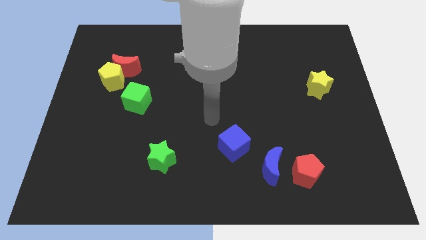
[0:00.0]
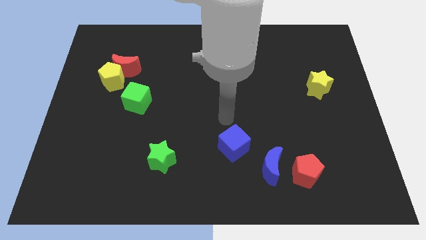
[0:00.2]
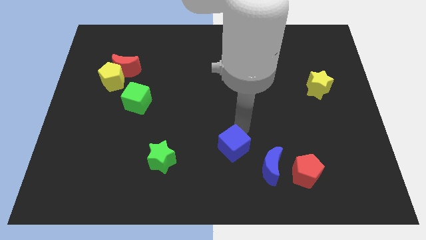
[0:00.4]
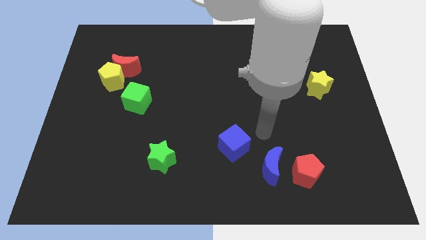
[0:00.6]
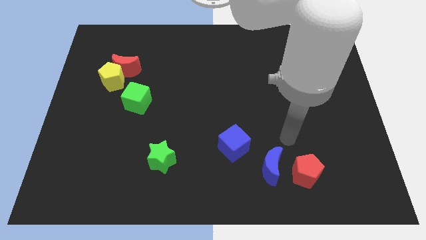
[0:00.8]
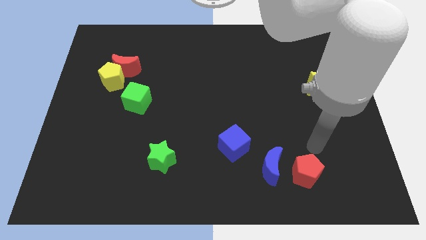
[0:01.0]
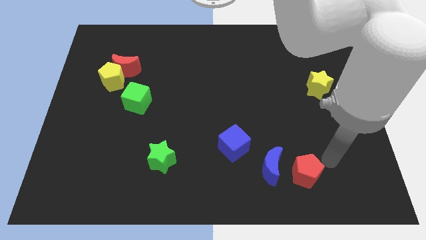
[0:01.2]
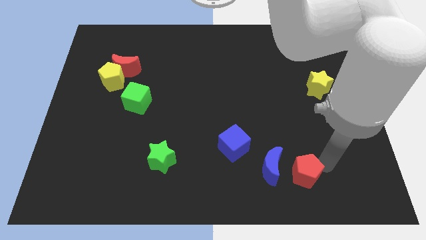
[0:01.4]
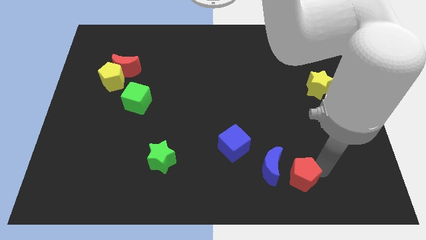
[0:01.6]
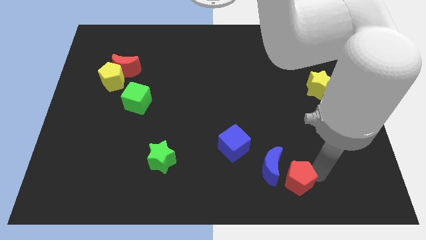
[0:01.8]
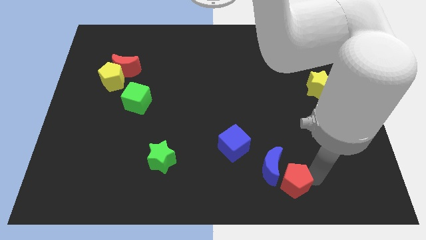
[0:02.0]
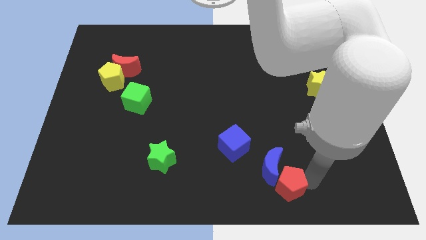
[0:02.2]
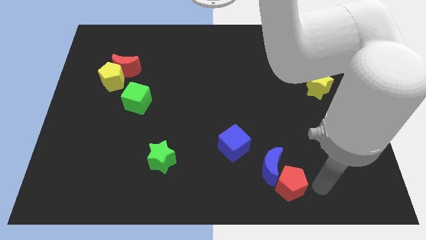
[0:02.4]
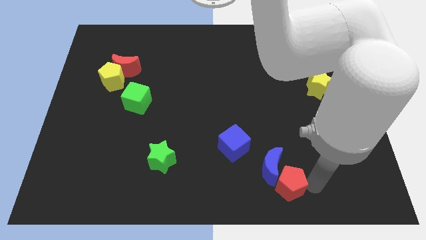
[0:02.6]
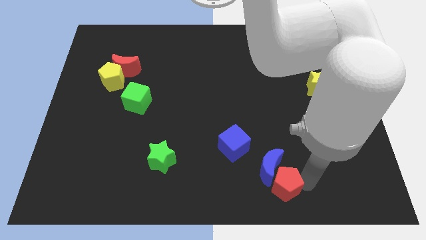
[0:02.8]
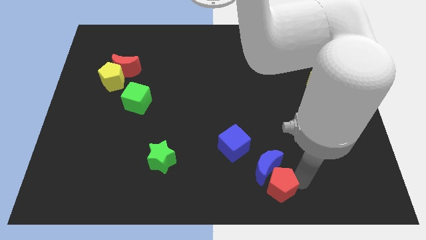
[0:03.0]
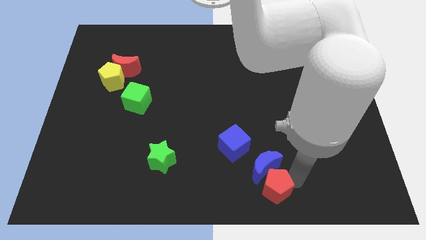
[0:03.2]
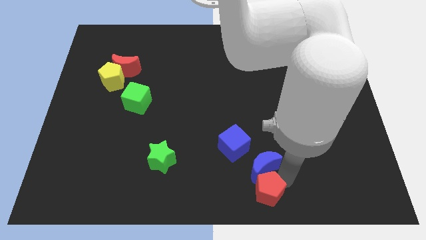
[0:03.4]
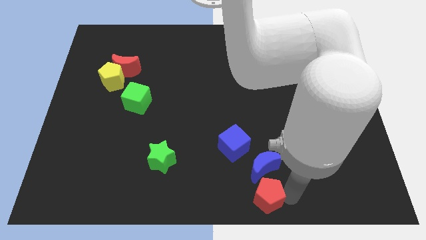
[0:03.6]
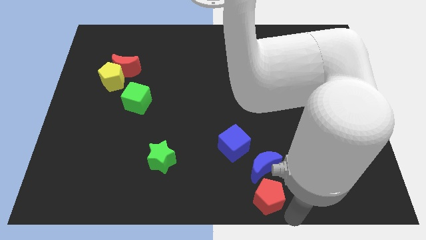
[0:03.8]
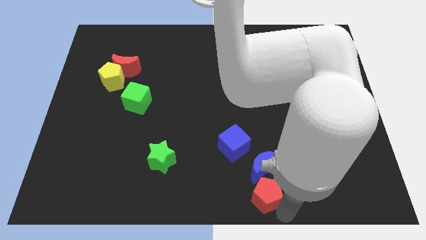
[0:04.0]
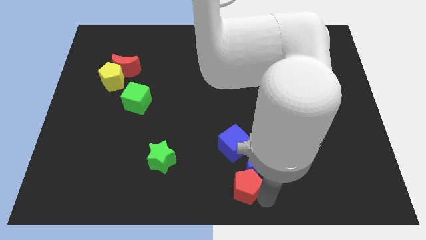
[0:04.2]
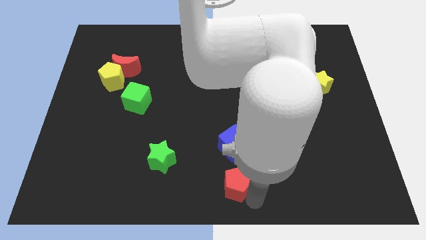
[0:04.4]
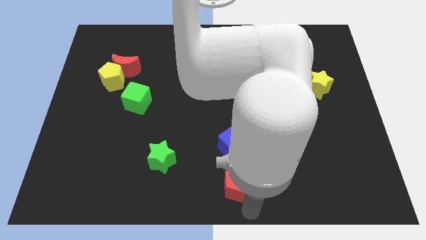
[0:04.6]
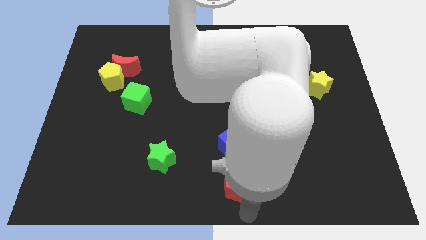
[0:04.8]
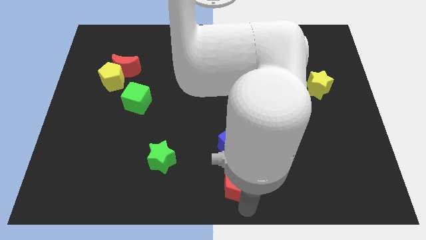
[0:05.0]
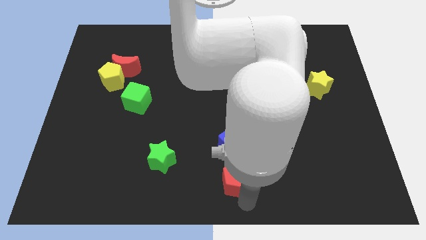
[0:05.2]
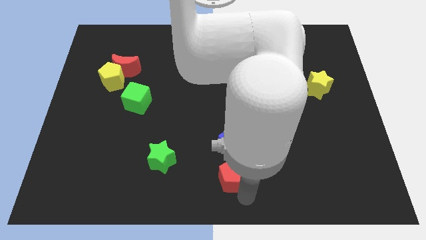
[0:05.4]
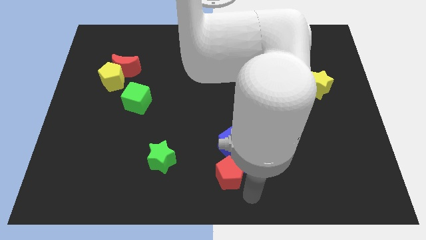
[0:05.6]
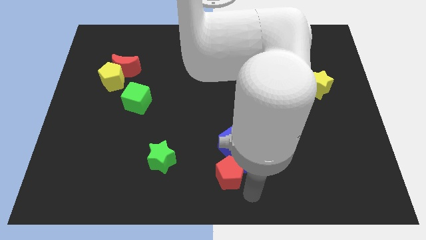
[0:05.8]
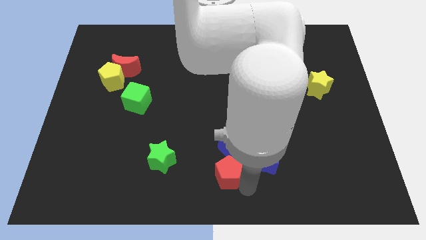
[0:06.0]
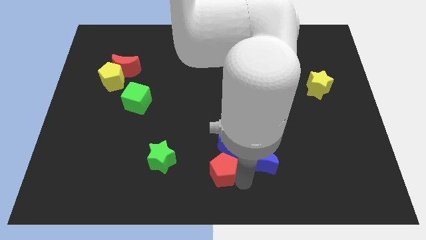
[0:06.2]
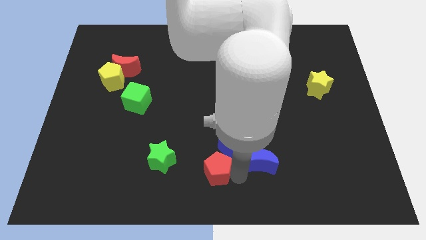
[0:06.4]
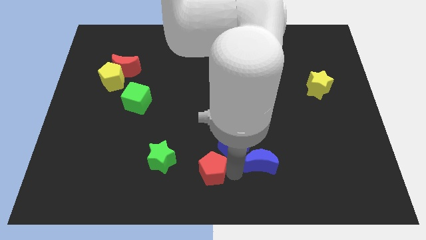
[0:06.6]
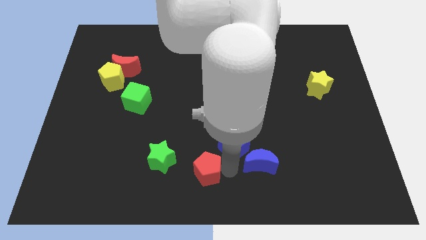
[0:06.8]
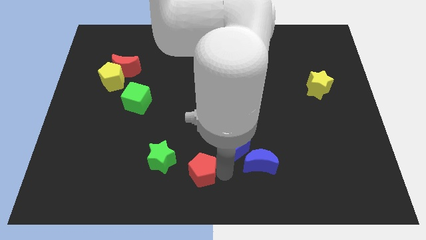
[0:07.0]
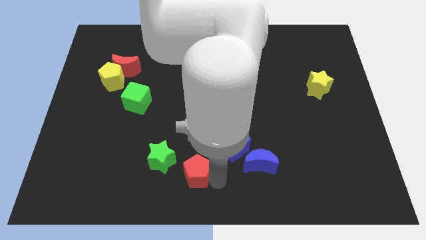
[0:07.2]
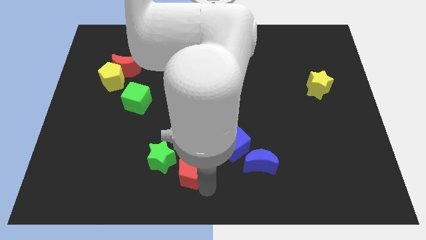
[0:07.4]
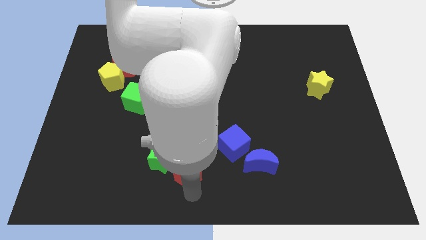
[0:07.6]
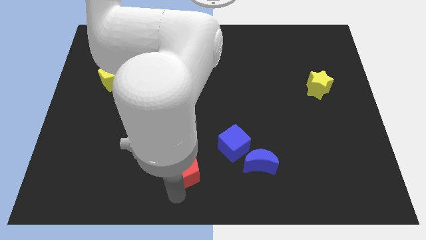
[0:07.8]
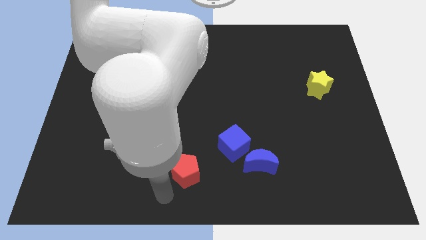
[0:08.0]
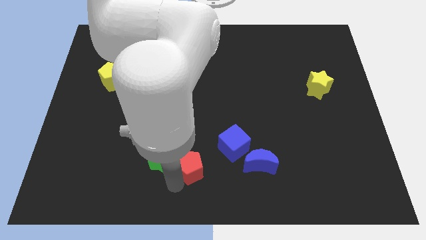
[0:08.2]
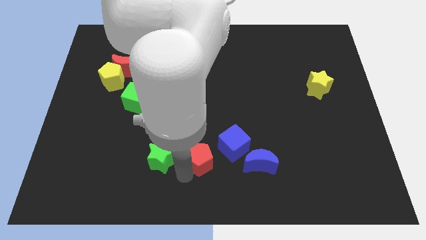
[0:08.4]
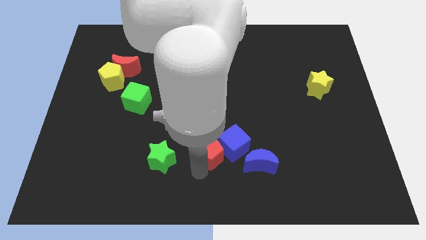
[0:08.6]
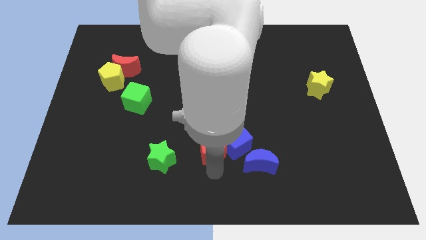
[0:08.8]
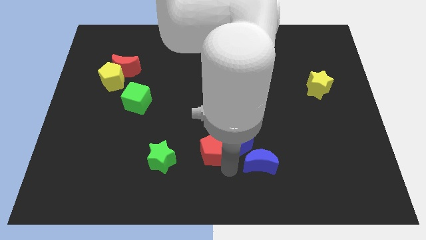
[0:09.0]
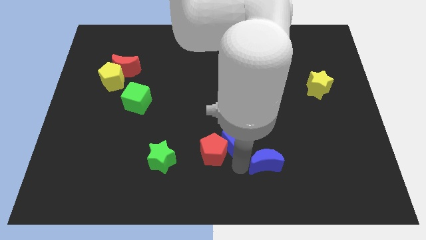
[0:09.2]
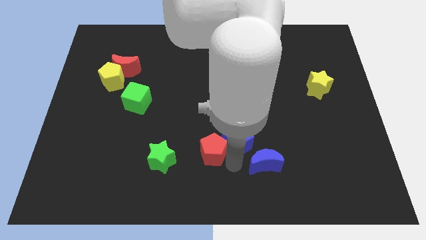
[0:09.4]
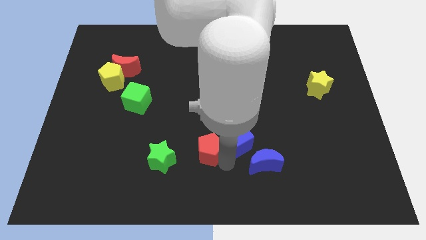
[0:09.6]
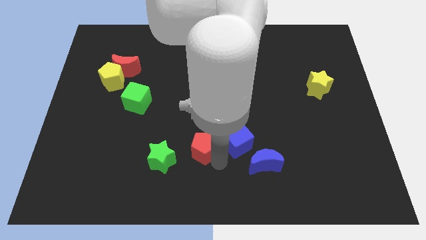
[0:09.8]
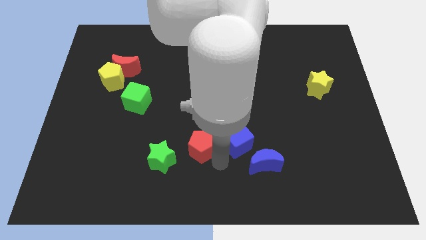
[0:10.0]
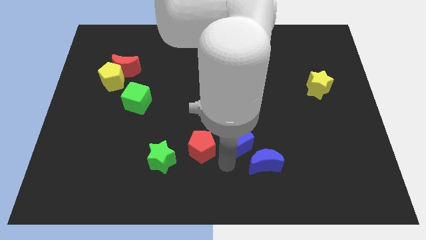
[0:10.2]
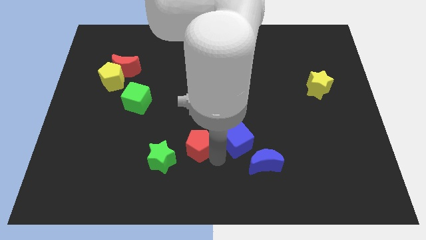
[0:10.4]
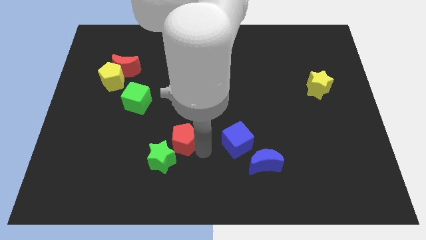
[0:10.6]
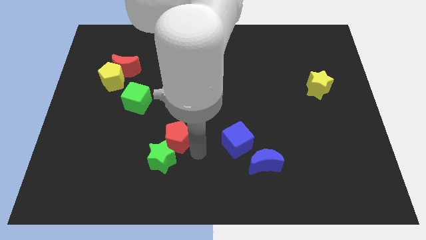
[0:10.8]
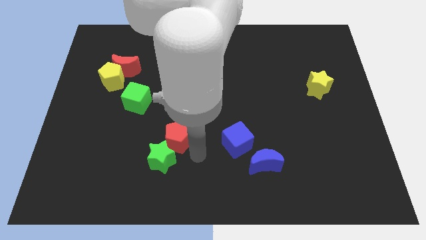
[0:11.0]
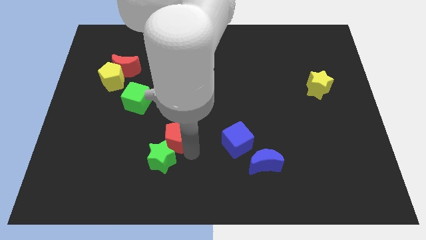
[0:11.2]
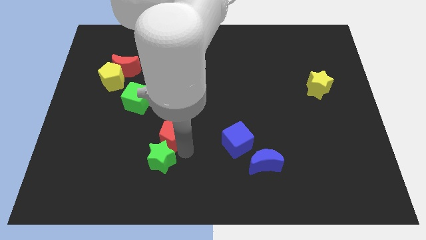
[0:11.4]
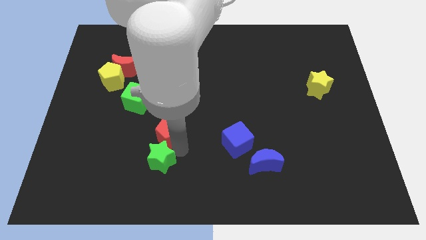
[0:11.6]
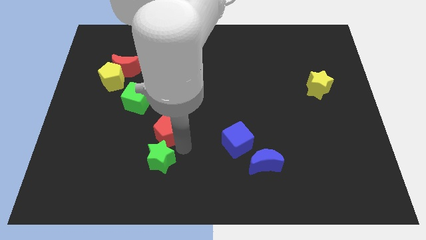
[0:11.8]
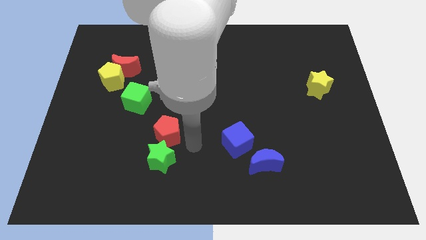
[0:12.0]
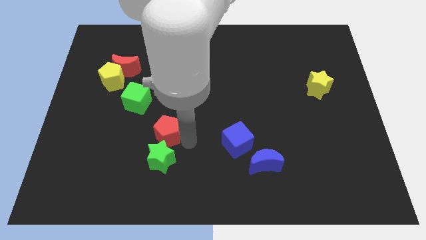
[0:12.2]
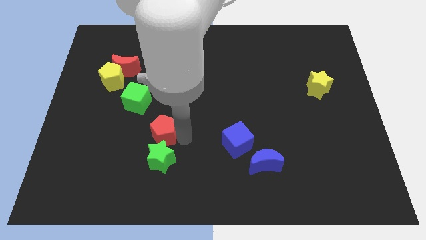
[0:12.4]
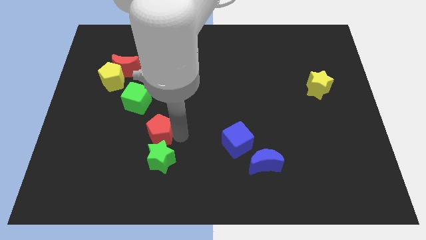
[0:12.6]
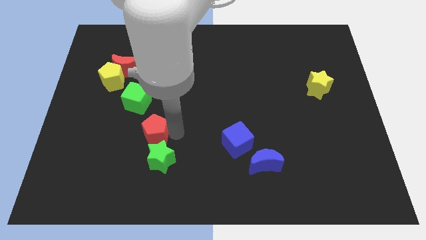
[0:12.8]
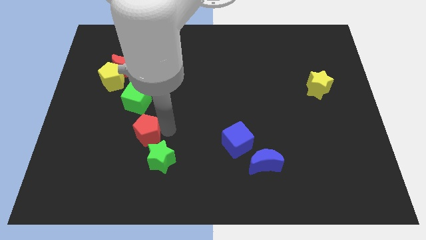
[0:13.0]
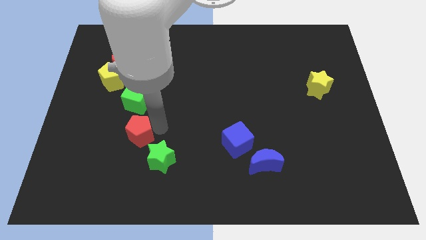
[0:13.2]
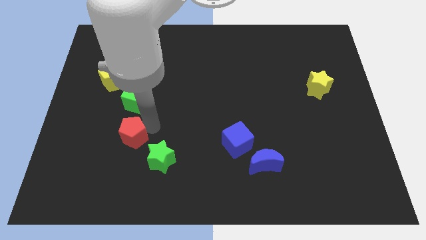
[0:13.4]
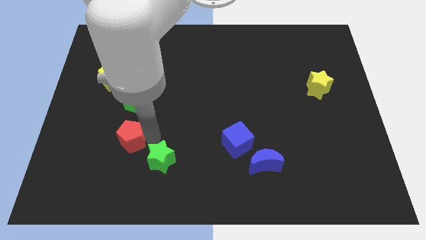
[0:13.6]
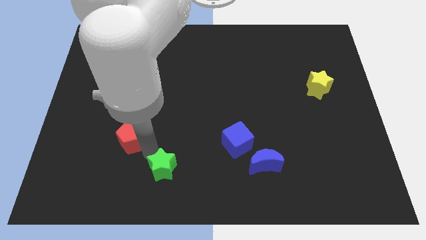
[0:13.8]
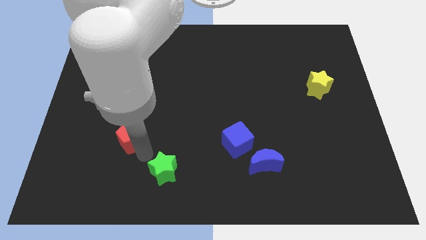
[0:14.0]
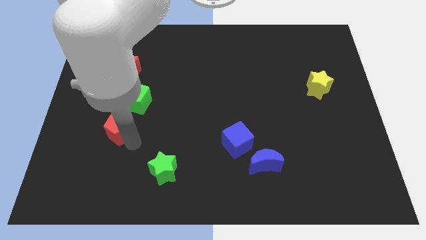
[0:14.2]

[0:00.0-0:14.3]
slide the red pentagon diagonally down and to the left of the green cube

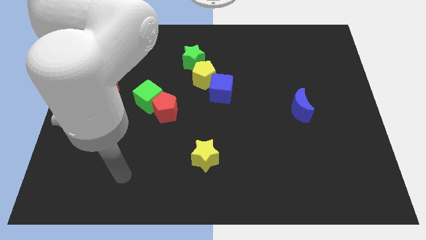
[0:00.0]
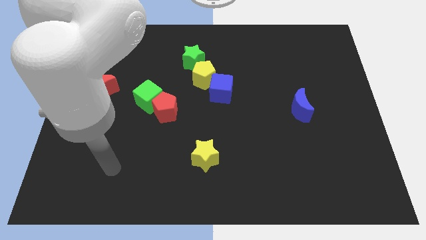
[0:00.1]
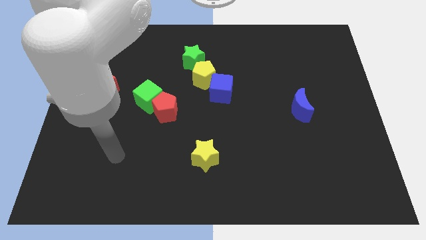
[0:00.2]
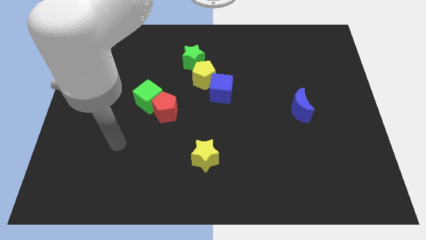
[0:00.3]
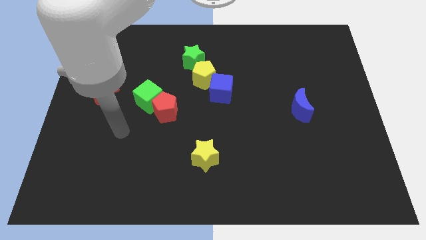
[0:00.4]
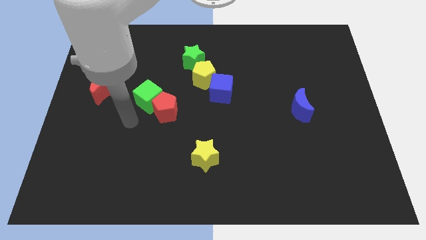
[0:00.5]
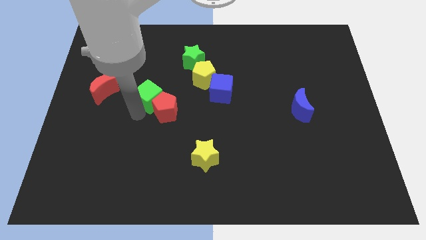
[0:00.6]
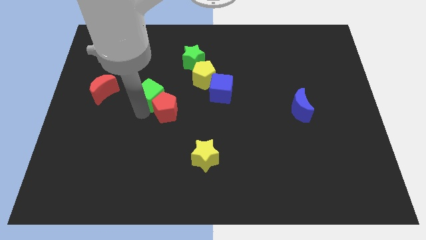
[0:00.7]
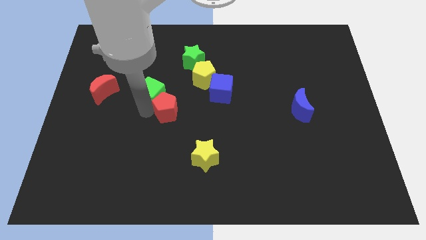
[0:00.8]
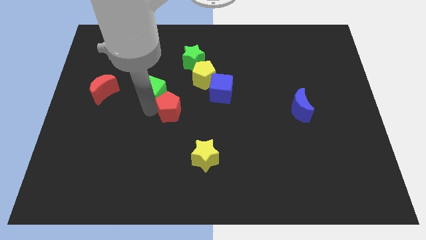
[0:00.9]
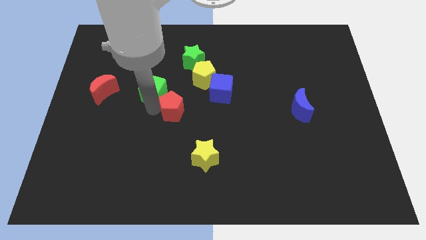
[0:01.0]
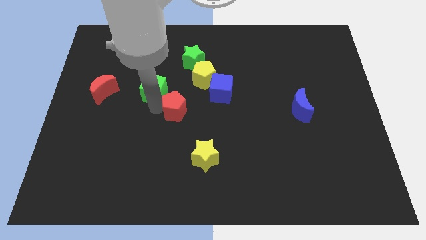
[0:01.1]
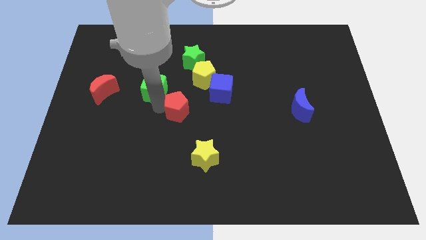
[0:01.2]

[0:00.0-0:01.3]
move the red pentagon to the bottom left of the blue cube
